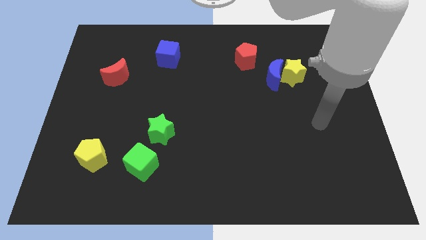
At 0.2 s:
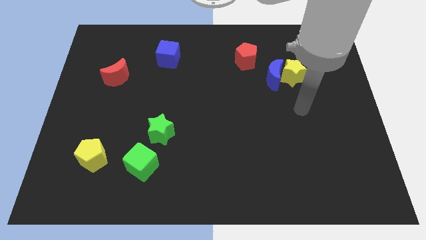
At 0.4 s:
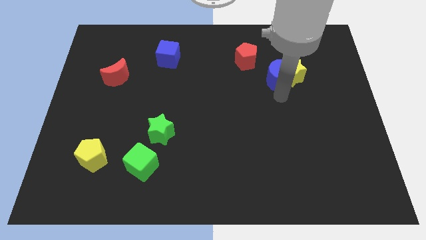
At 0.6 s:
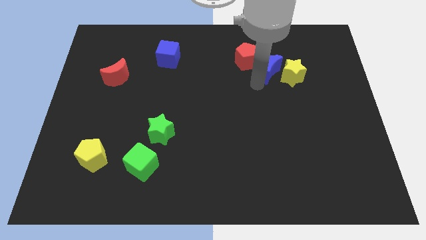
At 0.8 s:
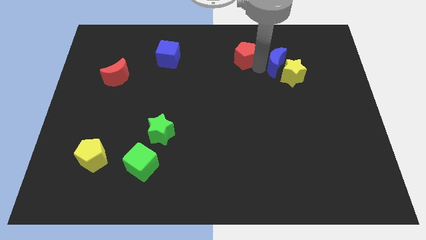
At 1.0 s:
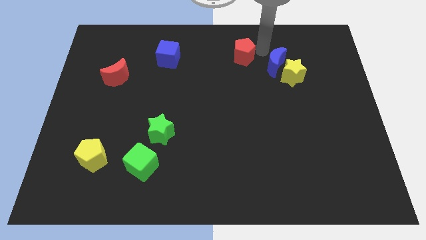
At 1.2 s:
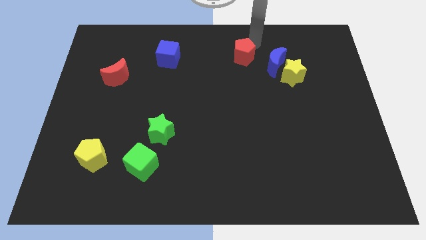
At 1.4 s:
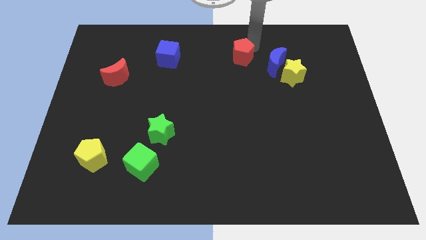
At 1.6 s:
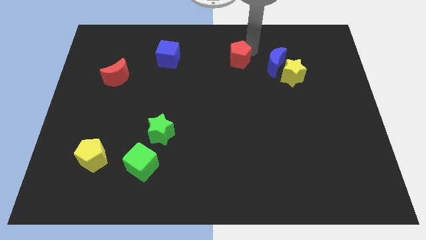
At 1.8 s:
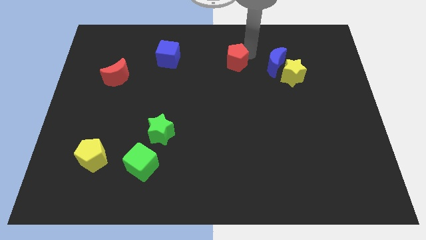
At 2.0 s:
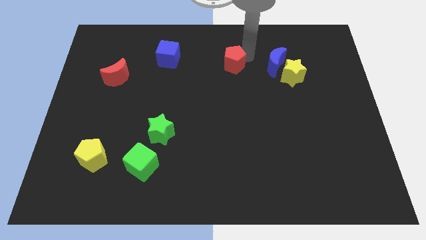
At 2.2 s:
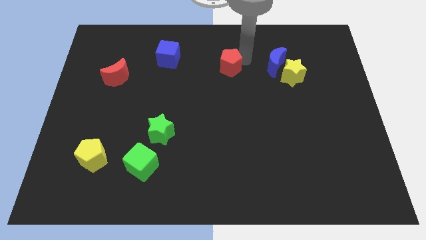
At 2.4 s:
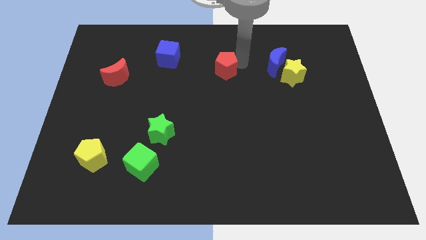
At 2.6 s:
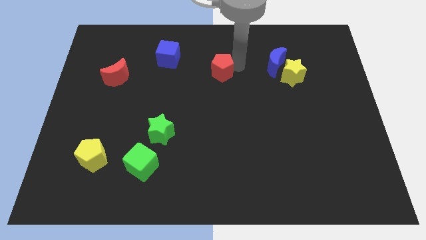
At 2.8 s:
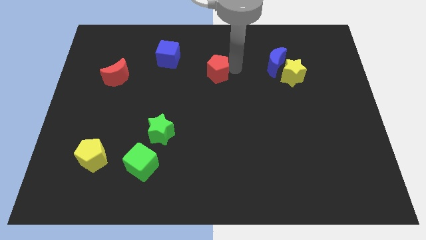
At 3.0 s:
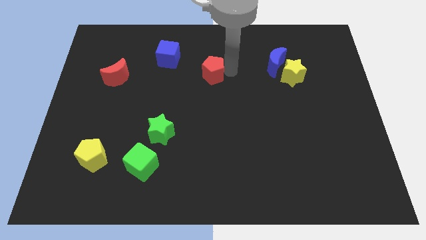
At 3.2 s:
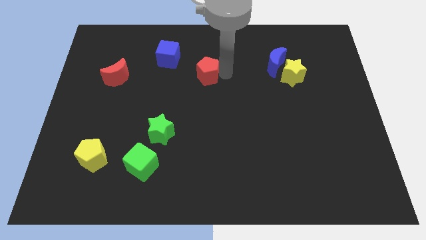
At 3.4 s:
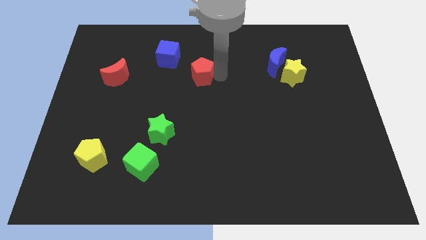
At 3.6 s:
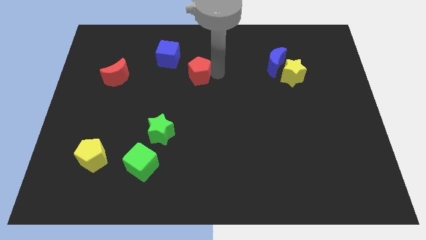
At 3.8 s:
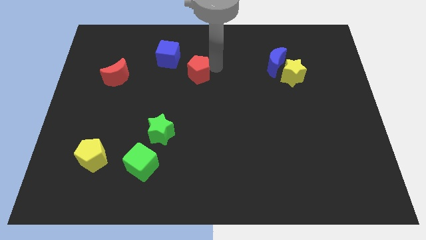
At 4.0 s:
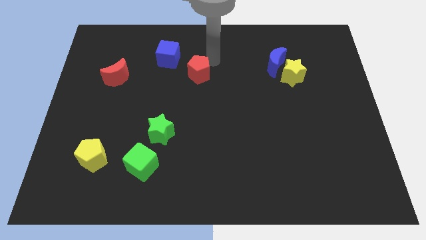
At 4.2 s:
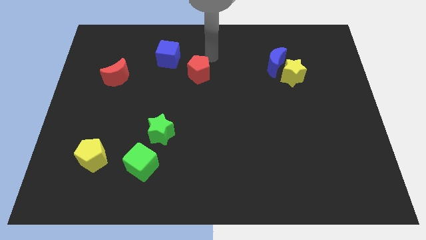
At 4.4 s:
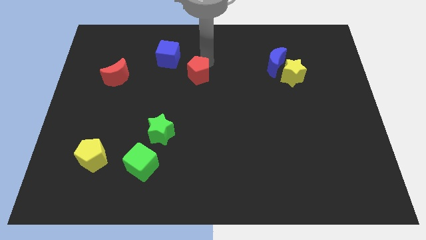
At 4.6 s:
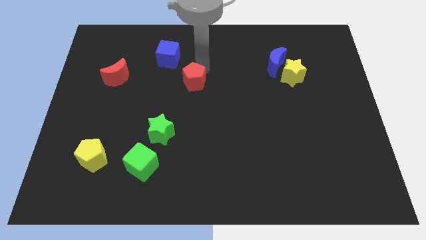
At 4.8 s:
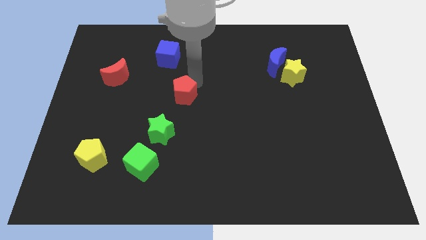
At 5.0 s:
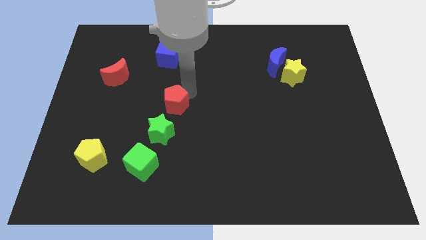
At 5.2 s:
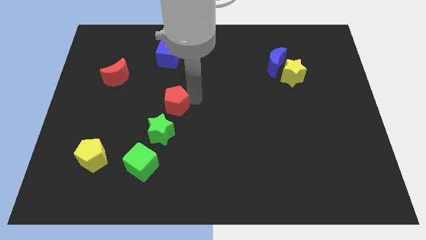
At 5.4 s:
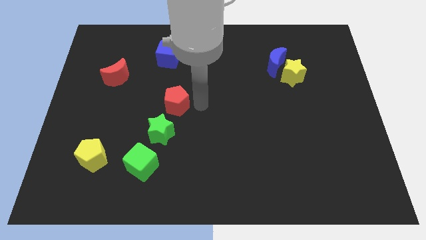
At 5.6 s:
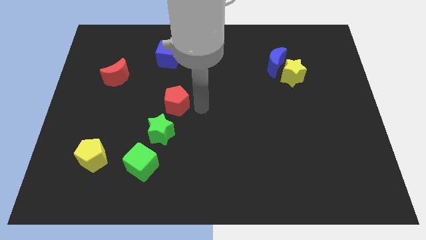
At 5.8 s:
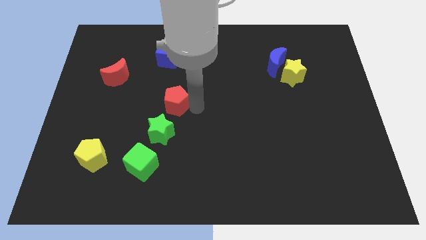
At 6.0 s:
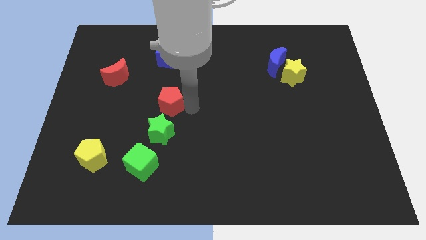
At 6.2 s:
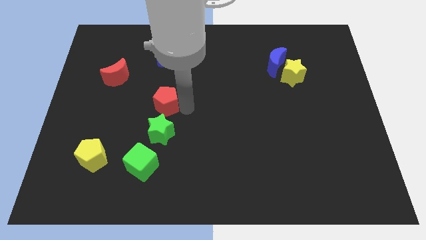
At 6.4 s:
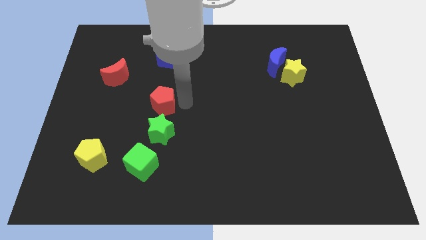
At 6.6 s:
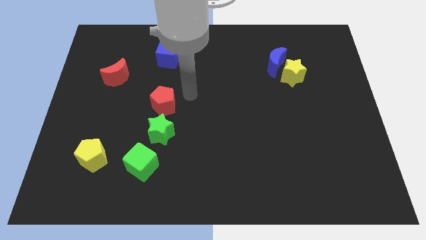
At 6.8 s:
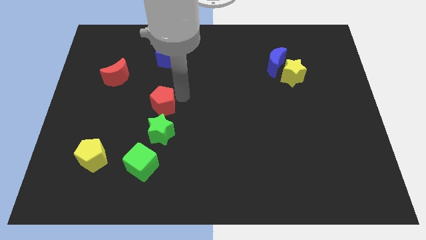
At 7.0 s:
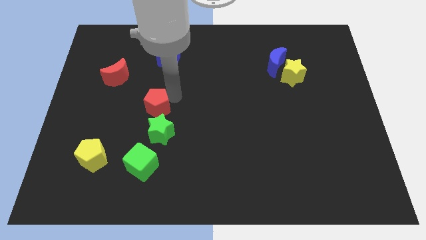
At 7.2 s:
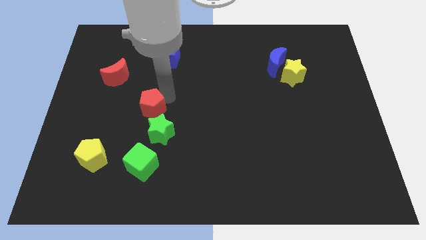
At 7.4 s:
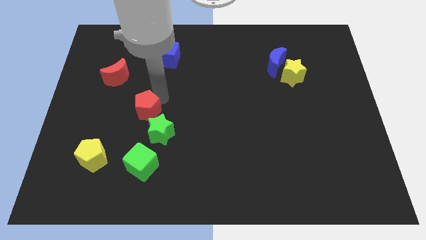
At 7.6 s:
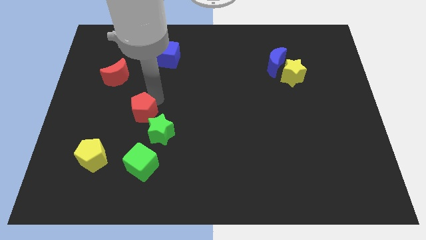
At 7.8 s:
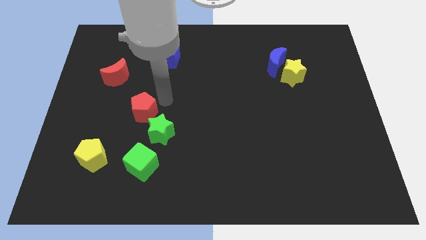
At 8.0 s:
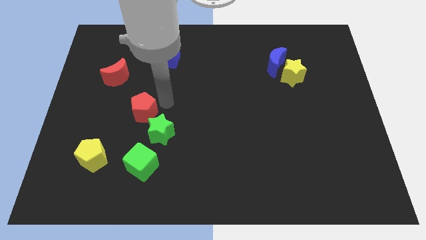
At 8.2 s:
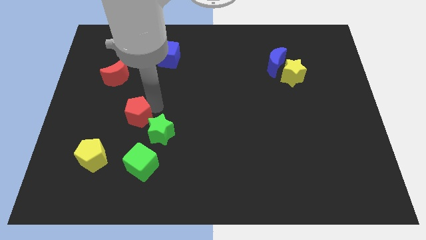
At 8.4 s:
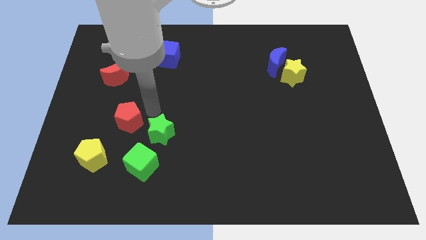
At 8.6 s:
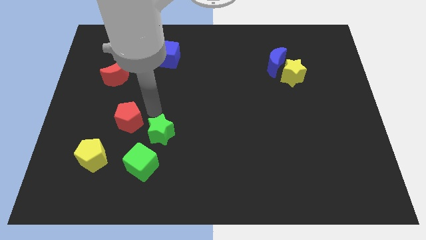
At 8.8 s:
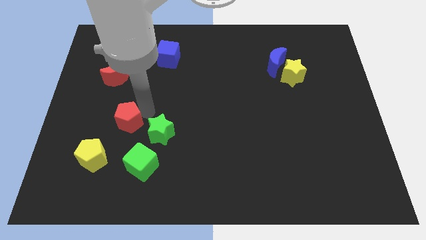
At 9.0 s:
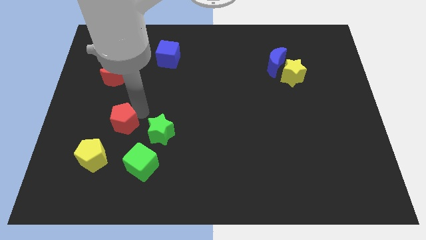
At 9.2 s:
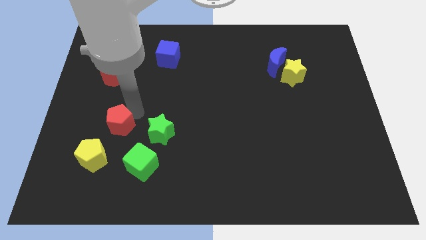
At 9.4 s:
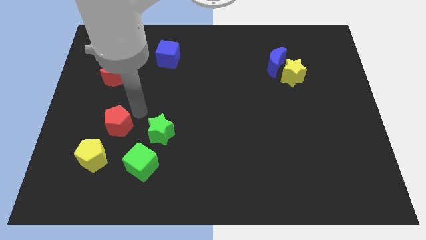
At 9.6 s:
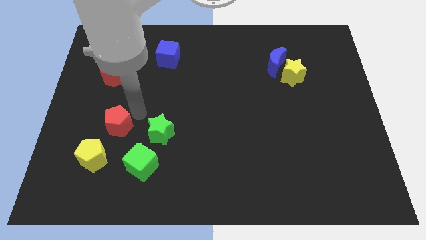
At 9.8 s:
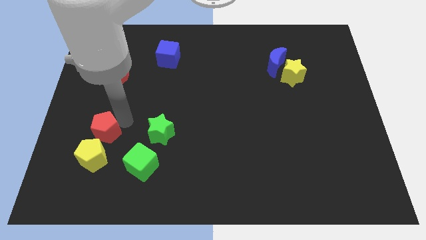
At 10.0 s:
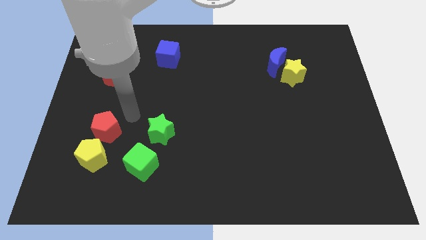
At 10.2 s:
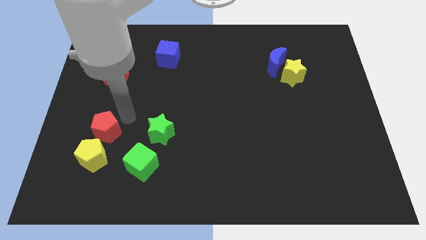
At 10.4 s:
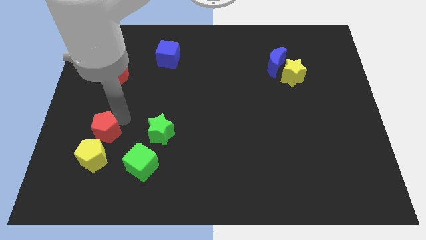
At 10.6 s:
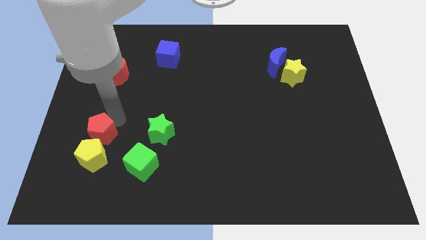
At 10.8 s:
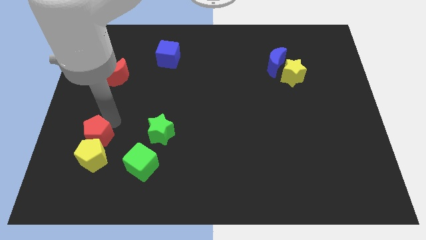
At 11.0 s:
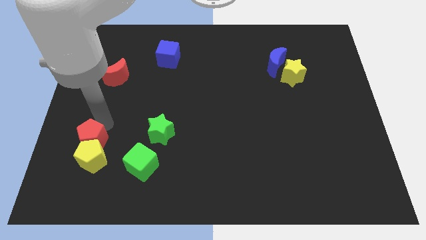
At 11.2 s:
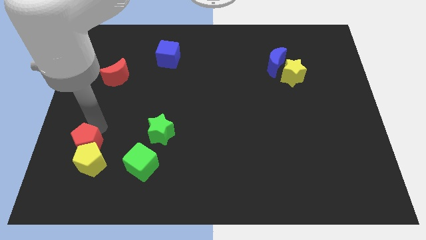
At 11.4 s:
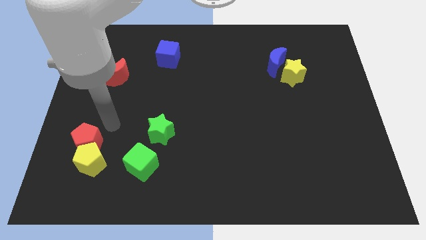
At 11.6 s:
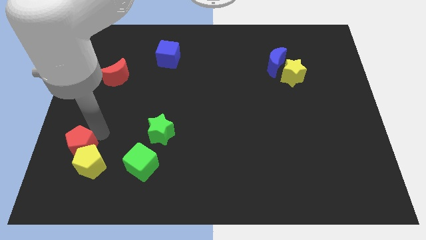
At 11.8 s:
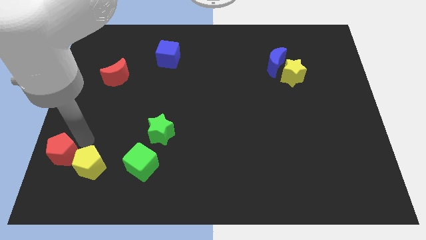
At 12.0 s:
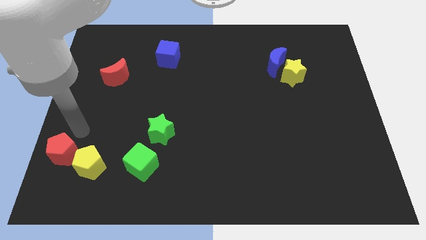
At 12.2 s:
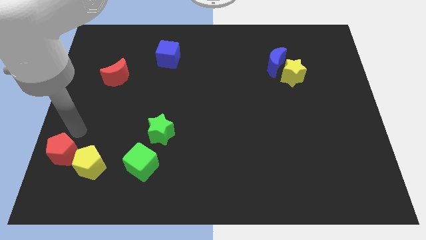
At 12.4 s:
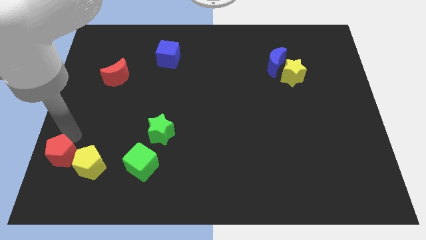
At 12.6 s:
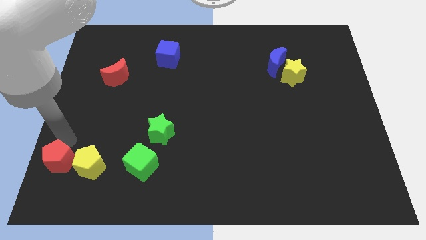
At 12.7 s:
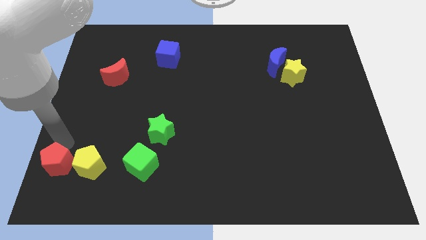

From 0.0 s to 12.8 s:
slide the red pentagon to the bottom left corner
